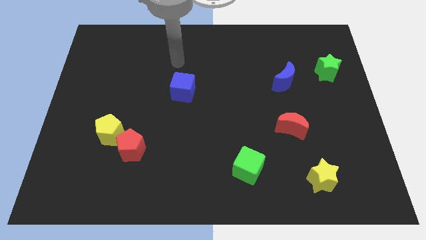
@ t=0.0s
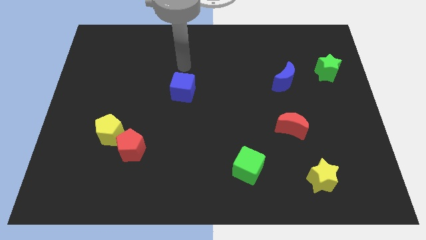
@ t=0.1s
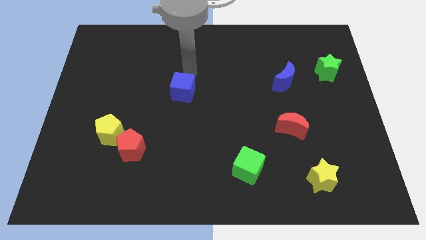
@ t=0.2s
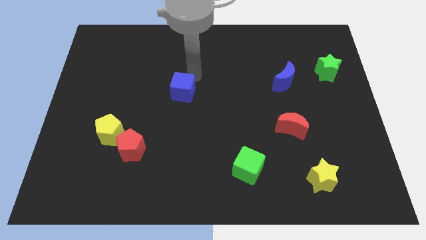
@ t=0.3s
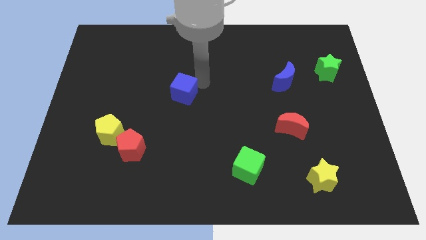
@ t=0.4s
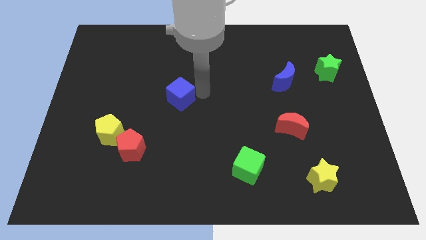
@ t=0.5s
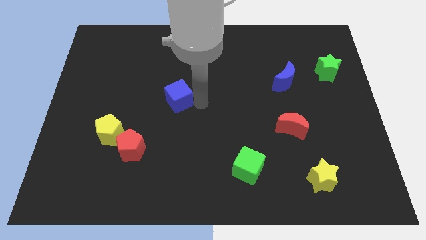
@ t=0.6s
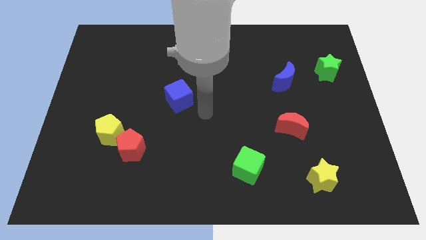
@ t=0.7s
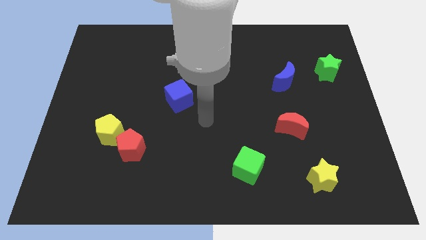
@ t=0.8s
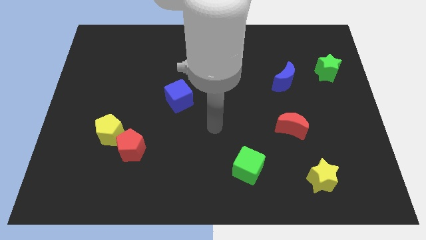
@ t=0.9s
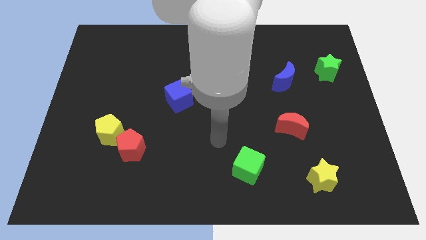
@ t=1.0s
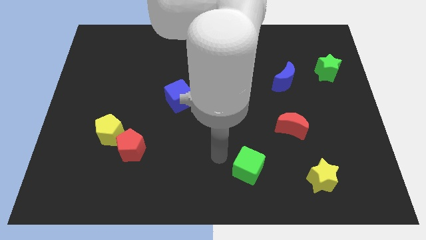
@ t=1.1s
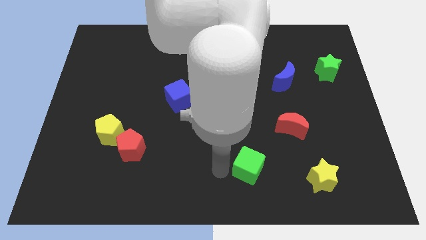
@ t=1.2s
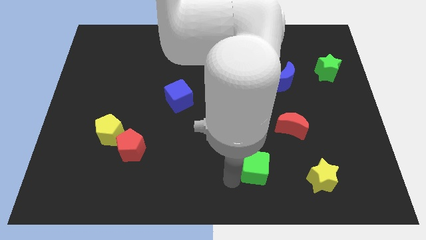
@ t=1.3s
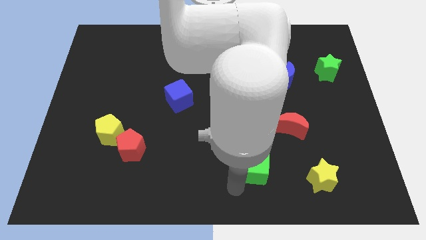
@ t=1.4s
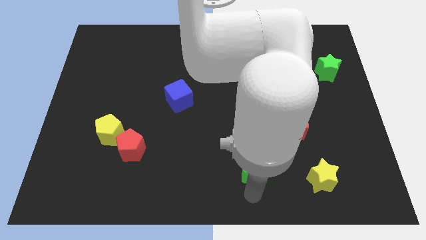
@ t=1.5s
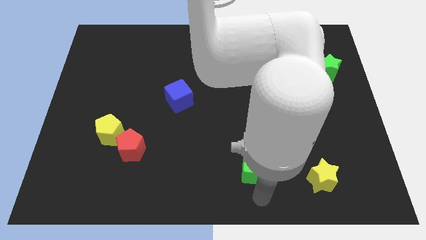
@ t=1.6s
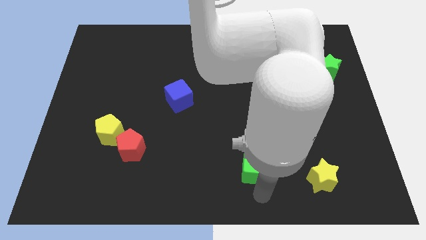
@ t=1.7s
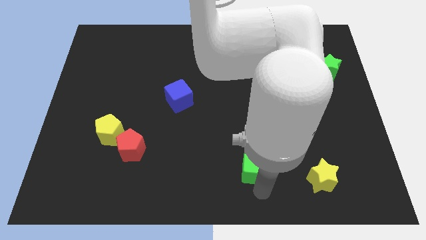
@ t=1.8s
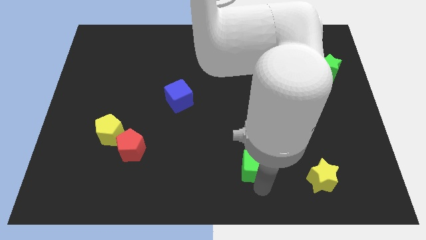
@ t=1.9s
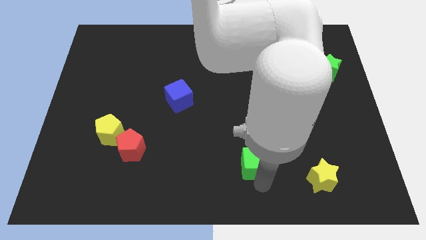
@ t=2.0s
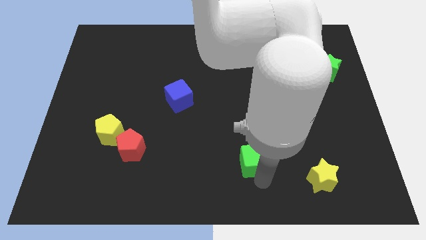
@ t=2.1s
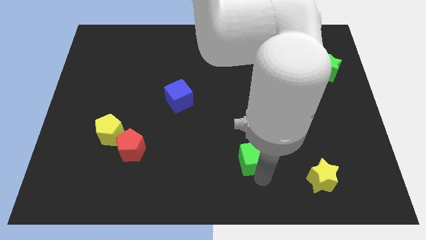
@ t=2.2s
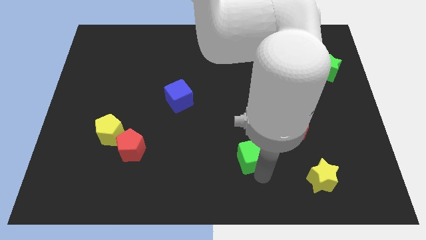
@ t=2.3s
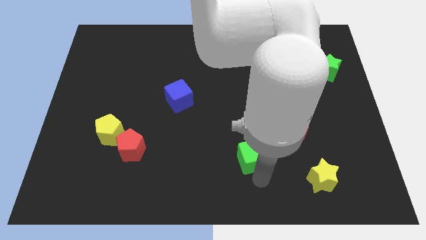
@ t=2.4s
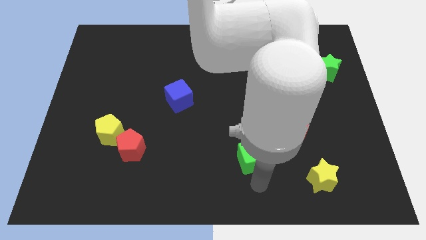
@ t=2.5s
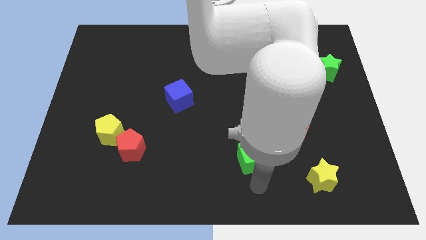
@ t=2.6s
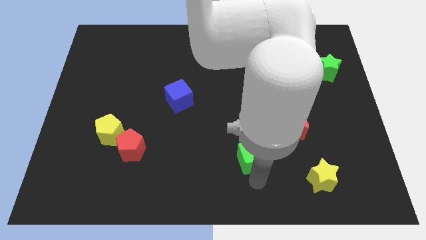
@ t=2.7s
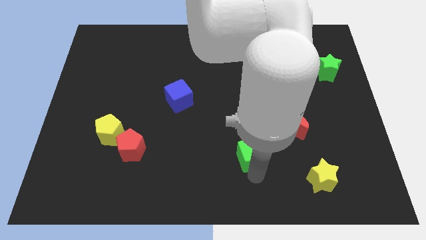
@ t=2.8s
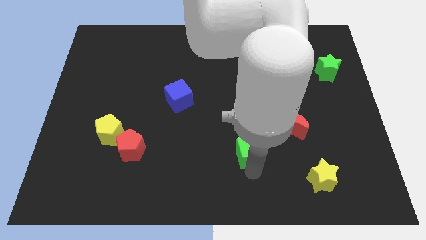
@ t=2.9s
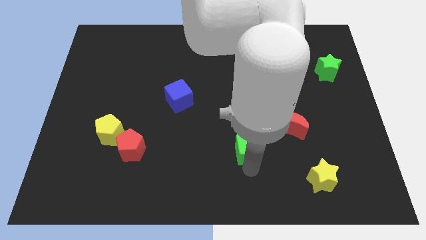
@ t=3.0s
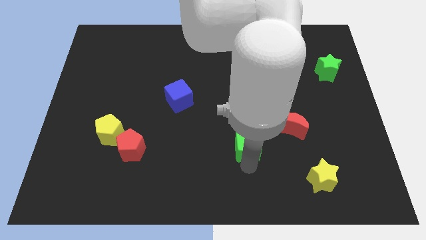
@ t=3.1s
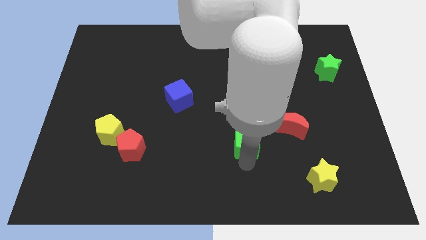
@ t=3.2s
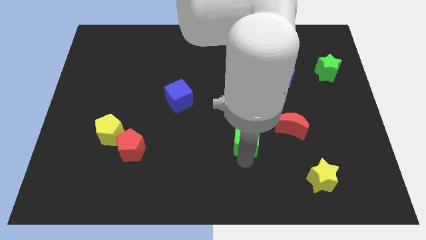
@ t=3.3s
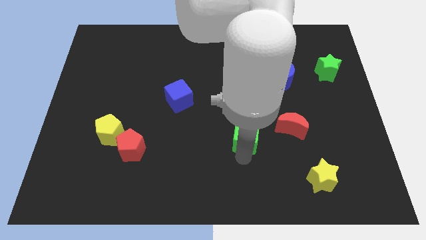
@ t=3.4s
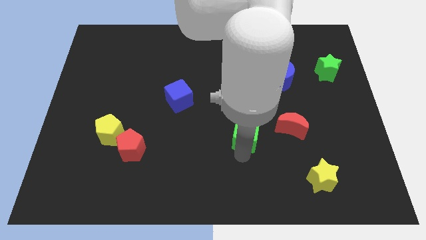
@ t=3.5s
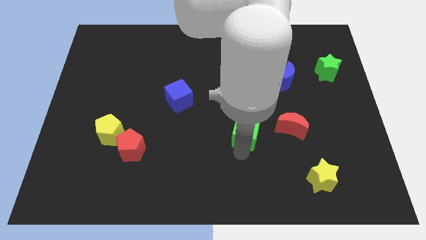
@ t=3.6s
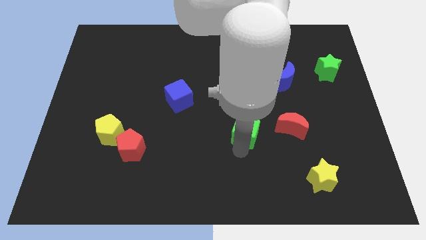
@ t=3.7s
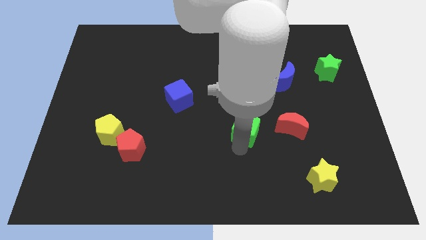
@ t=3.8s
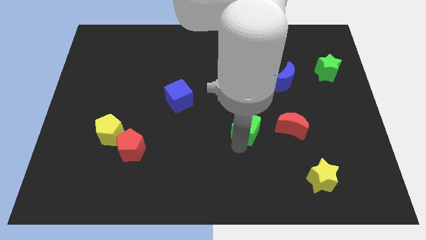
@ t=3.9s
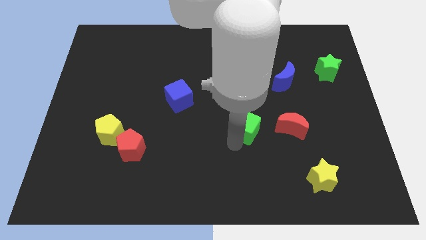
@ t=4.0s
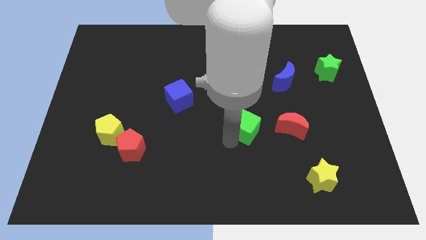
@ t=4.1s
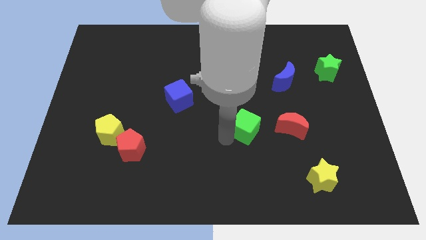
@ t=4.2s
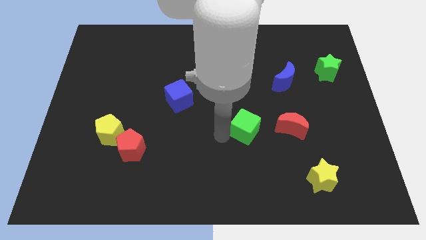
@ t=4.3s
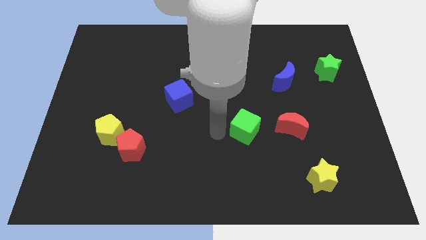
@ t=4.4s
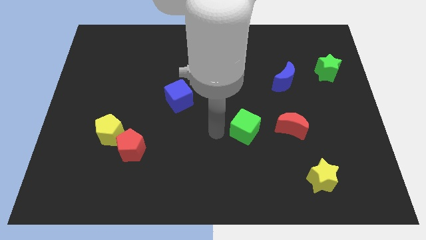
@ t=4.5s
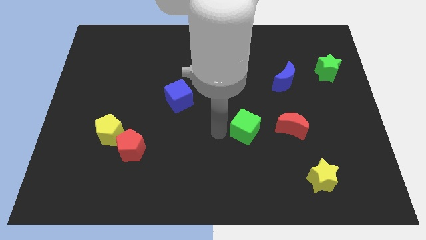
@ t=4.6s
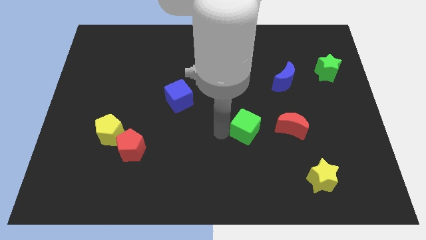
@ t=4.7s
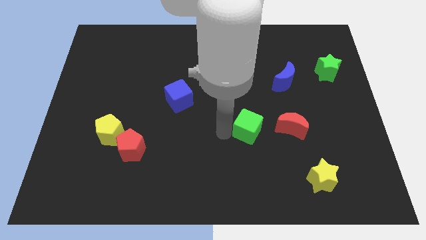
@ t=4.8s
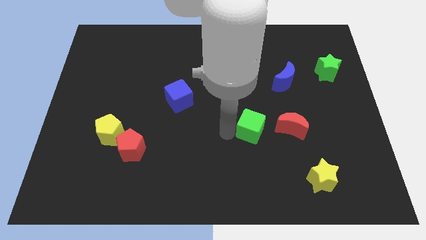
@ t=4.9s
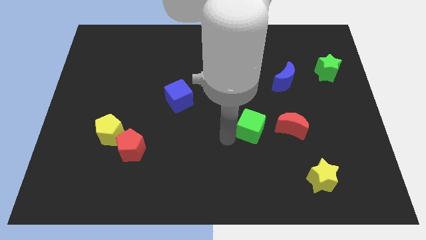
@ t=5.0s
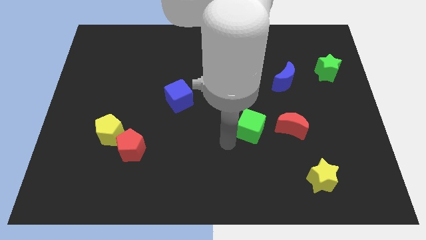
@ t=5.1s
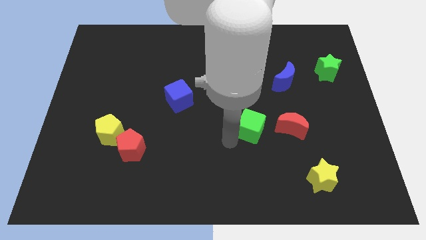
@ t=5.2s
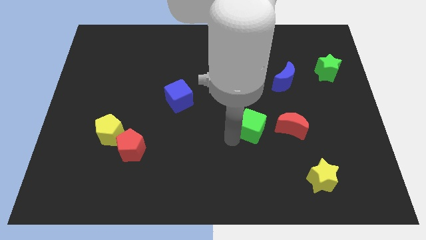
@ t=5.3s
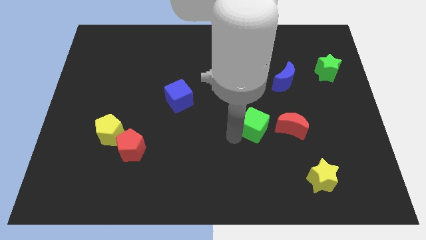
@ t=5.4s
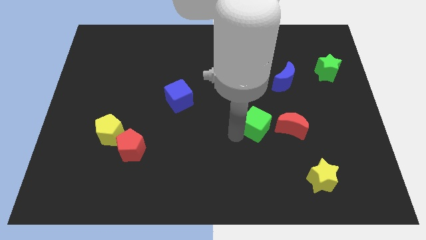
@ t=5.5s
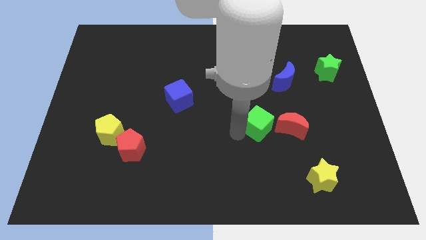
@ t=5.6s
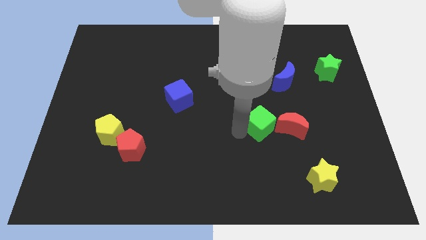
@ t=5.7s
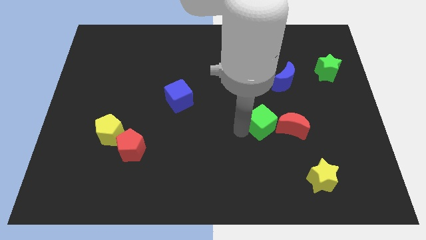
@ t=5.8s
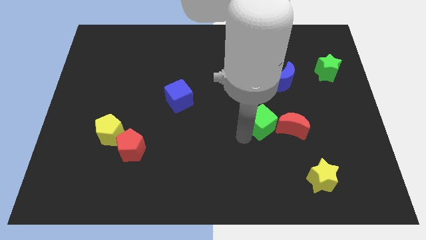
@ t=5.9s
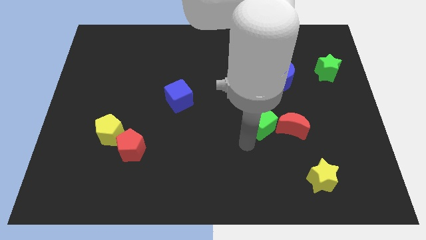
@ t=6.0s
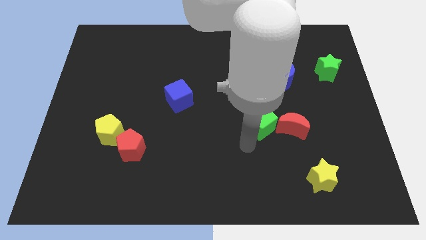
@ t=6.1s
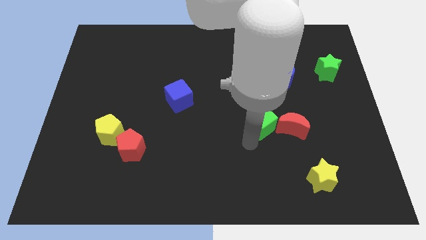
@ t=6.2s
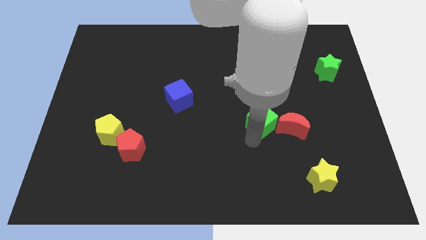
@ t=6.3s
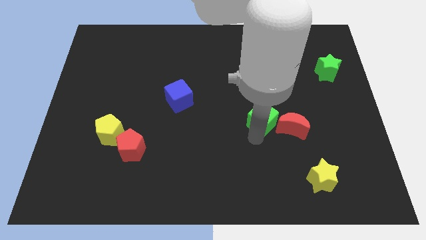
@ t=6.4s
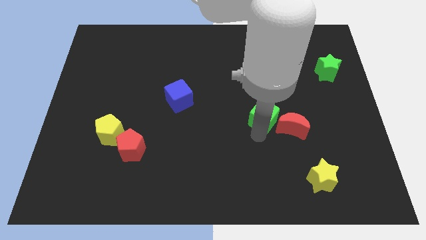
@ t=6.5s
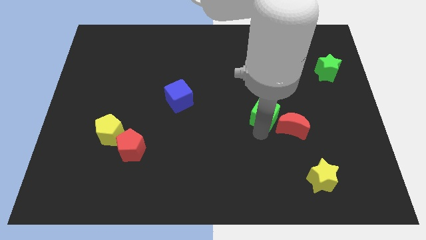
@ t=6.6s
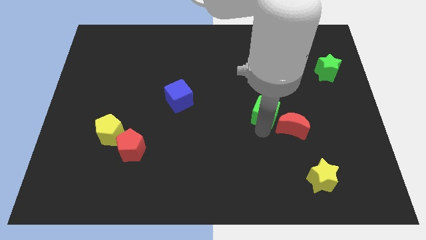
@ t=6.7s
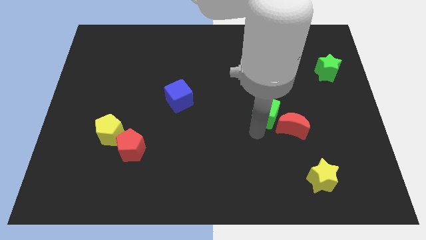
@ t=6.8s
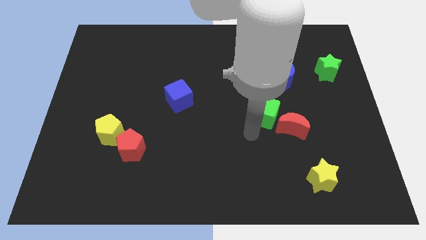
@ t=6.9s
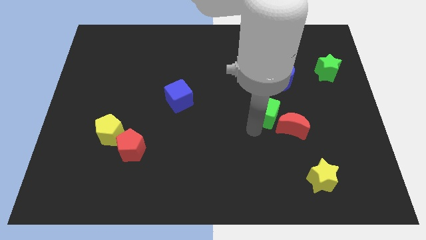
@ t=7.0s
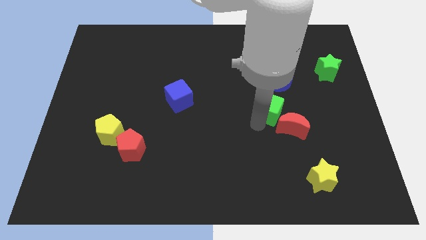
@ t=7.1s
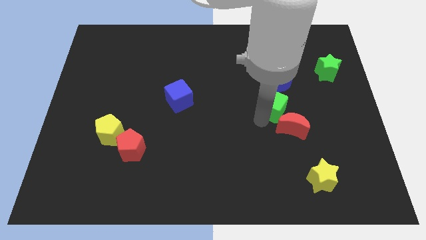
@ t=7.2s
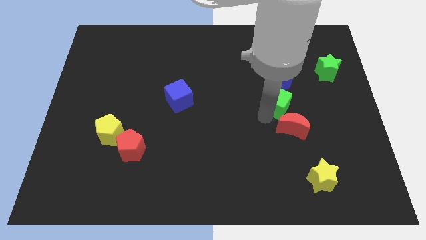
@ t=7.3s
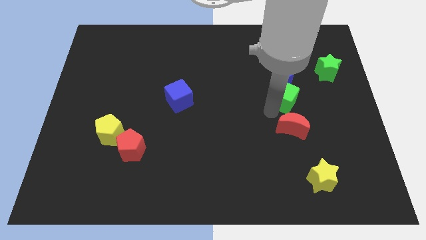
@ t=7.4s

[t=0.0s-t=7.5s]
put the green cube towards the blue moon

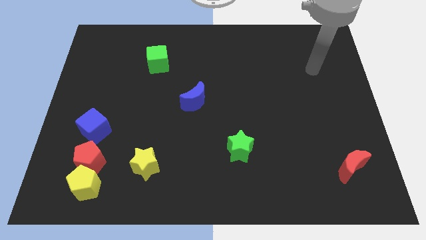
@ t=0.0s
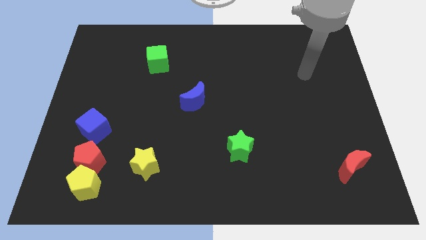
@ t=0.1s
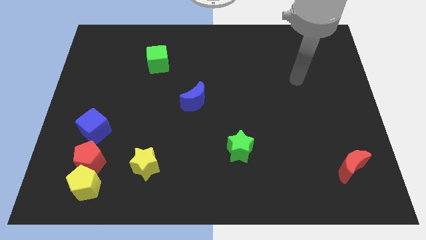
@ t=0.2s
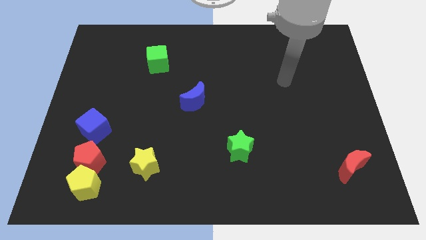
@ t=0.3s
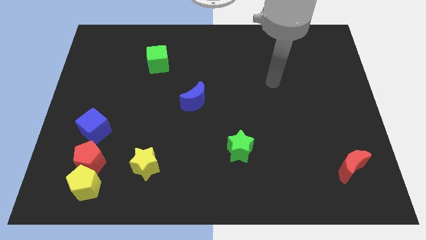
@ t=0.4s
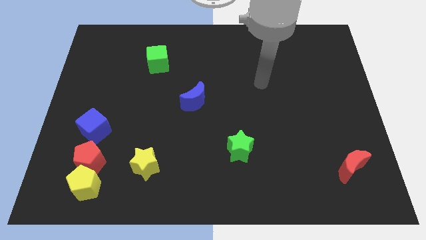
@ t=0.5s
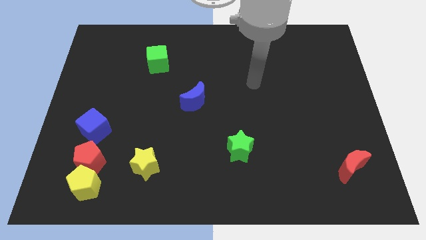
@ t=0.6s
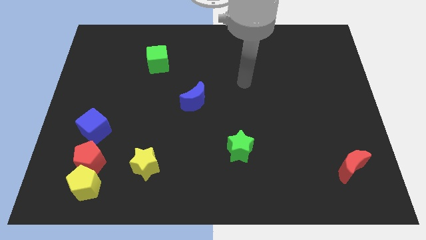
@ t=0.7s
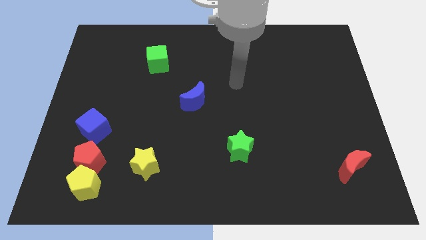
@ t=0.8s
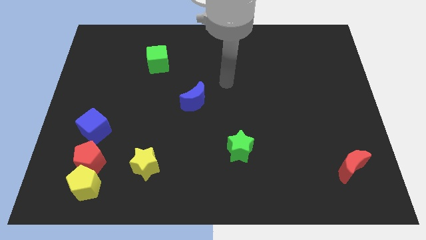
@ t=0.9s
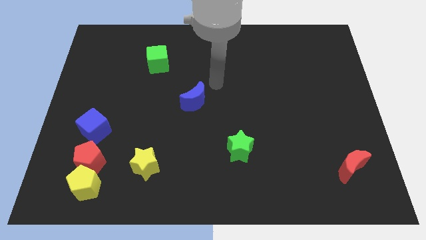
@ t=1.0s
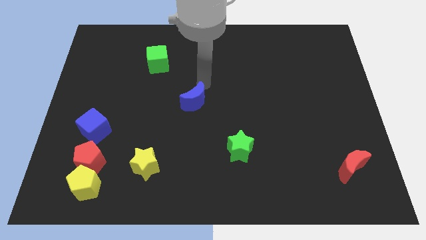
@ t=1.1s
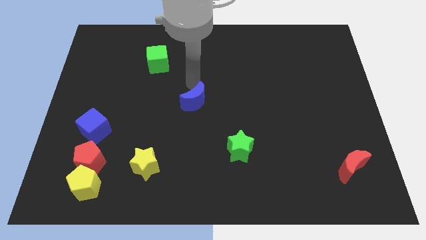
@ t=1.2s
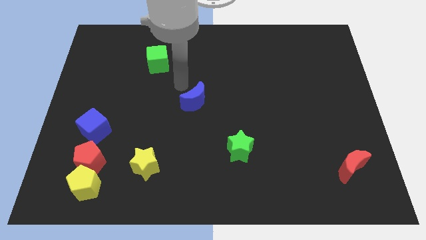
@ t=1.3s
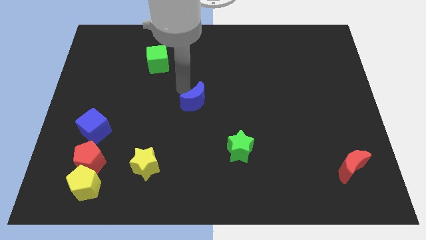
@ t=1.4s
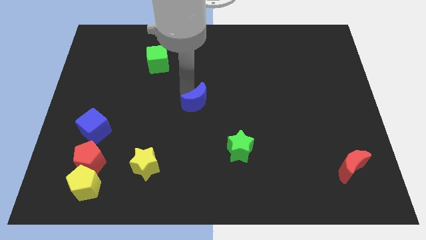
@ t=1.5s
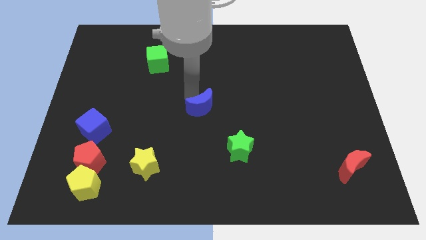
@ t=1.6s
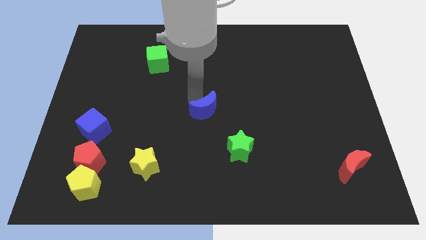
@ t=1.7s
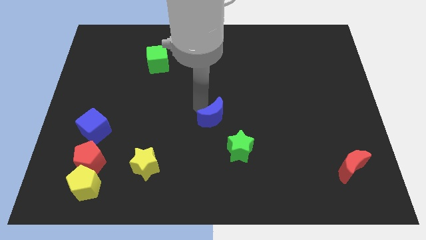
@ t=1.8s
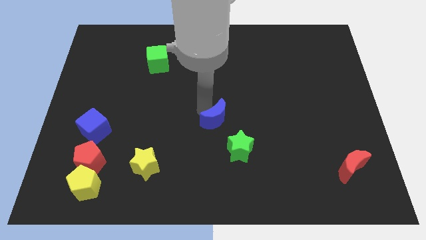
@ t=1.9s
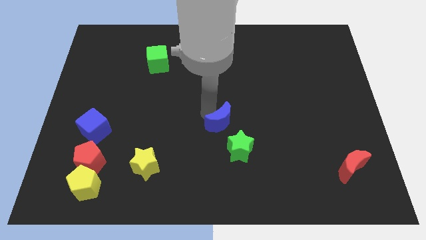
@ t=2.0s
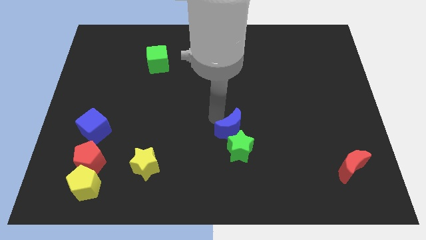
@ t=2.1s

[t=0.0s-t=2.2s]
move the blue moon towards the green star
